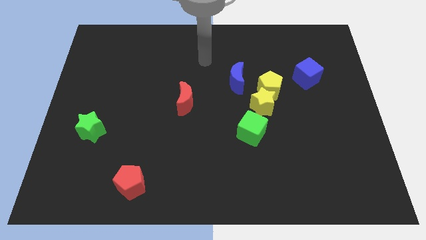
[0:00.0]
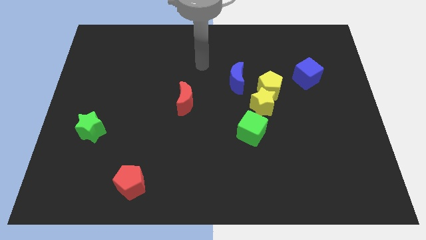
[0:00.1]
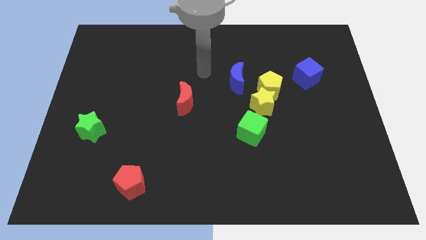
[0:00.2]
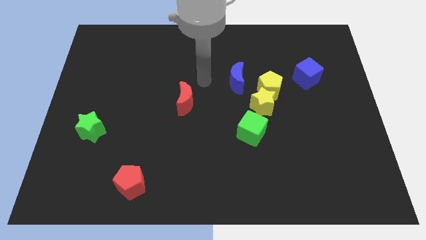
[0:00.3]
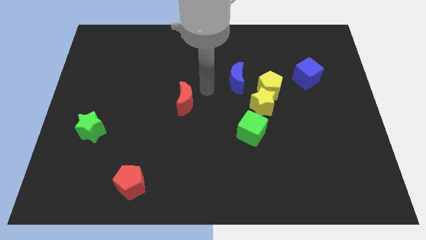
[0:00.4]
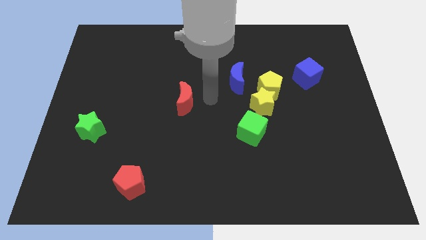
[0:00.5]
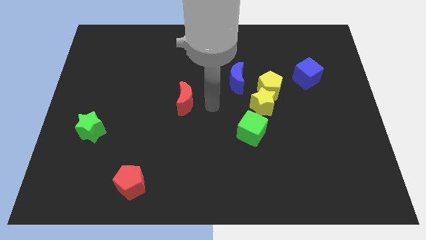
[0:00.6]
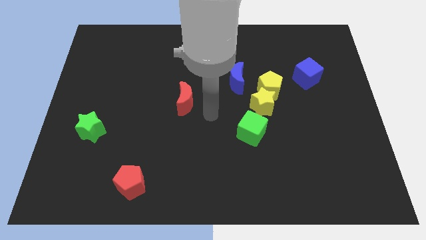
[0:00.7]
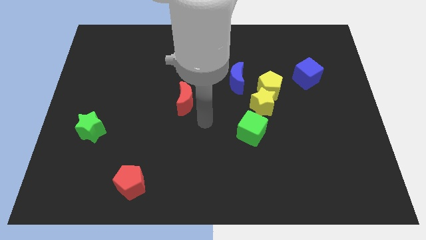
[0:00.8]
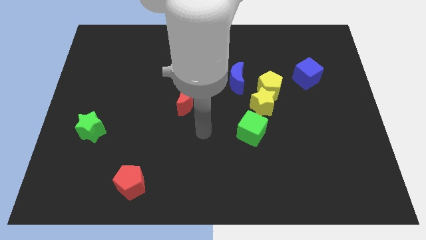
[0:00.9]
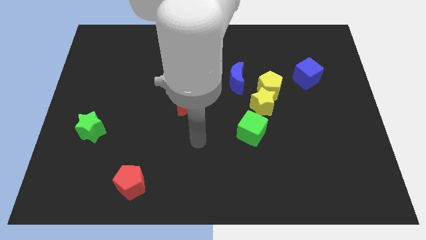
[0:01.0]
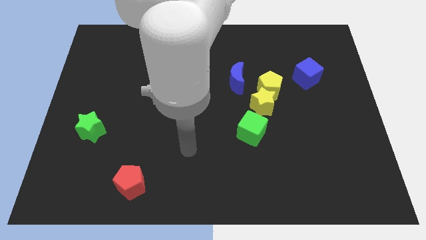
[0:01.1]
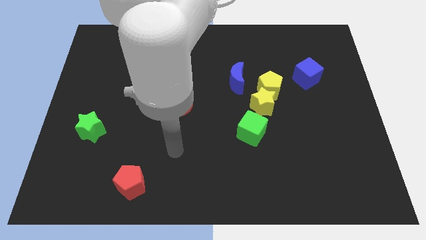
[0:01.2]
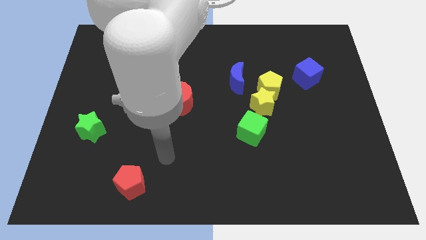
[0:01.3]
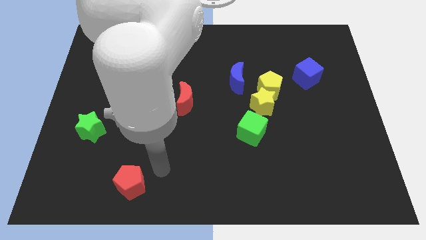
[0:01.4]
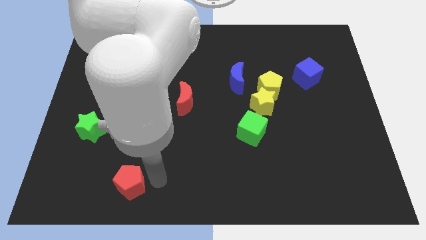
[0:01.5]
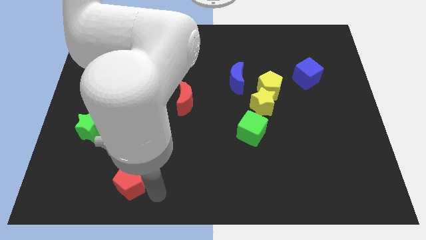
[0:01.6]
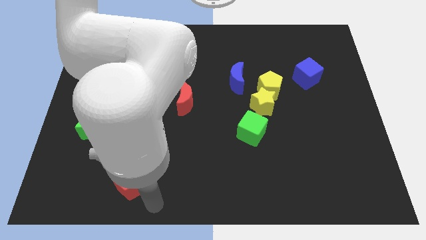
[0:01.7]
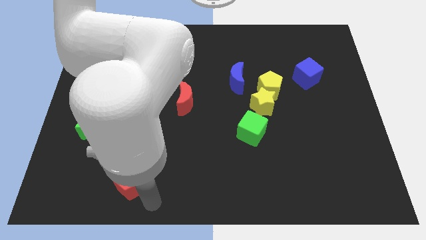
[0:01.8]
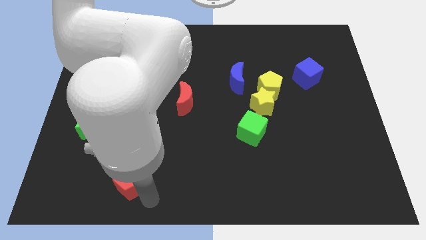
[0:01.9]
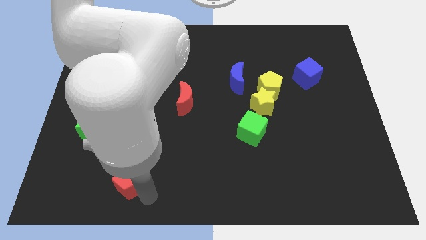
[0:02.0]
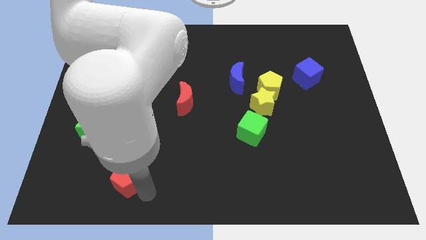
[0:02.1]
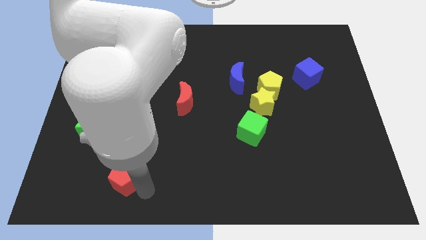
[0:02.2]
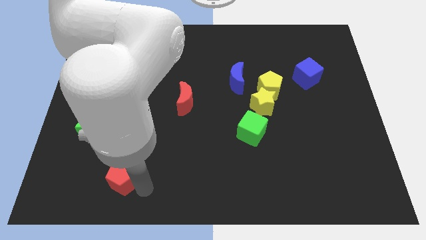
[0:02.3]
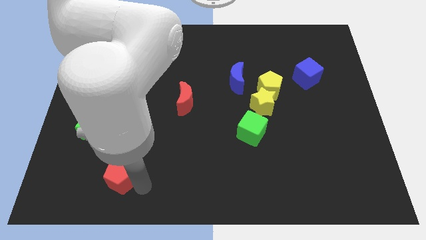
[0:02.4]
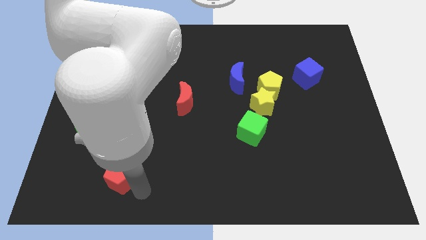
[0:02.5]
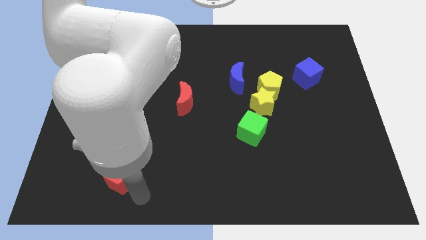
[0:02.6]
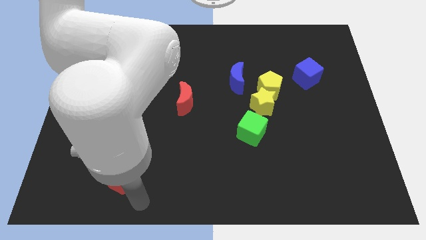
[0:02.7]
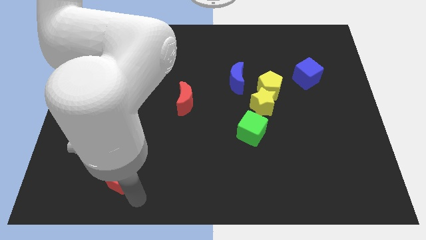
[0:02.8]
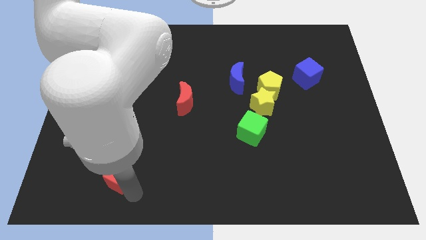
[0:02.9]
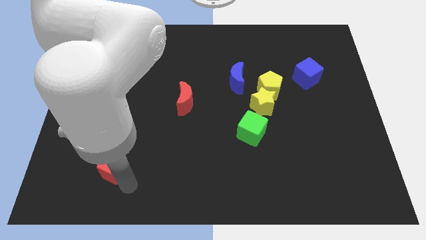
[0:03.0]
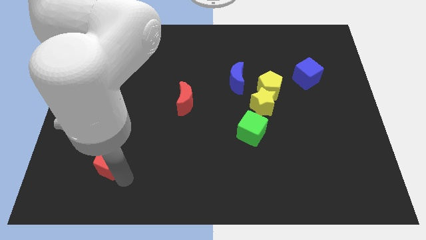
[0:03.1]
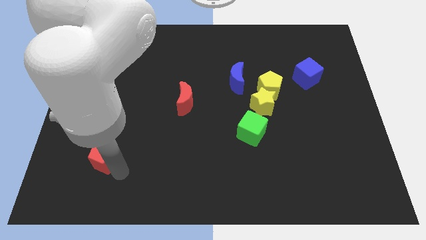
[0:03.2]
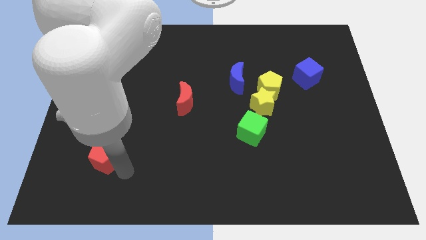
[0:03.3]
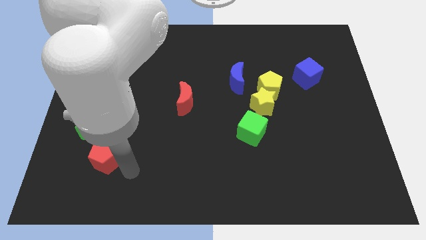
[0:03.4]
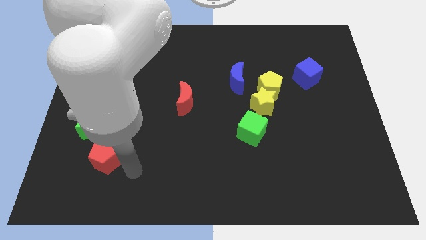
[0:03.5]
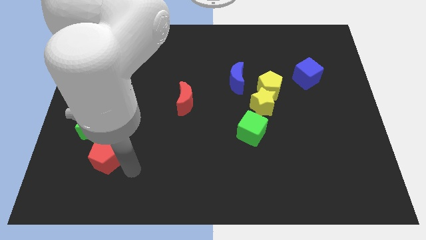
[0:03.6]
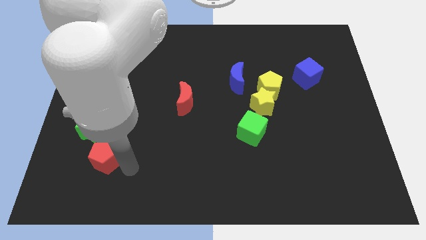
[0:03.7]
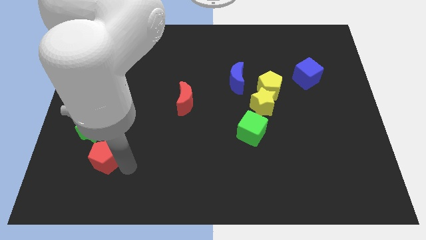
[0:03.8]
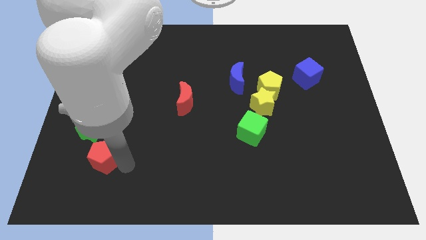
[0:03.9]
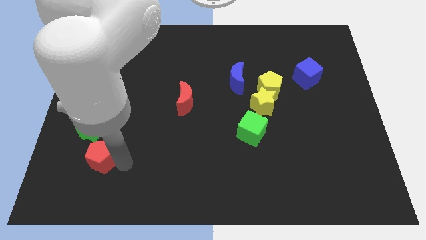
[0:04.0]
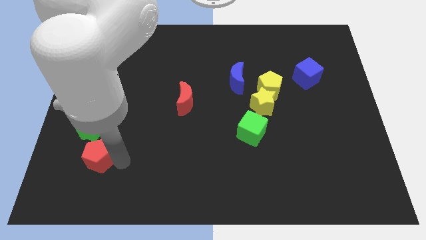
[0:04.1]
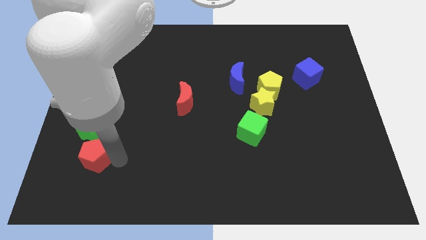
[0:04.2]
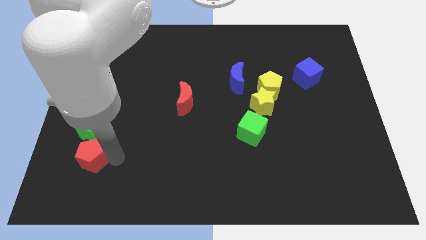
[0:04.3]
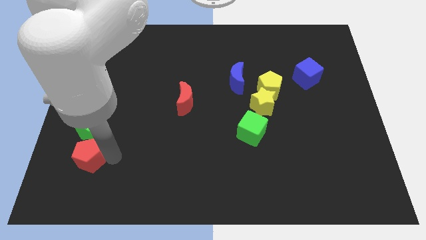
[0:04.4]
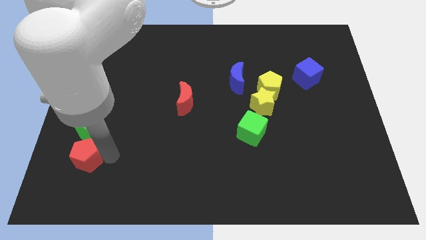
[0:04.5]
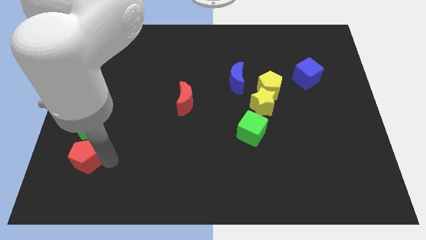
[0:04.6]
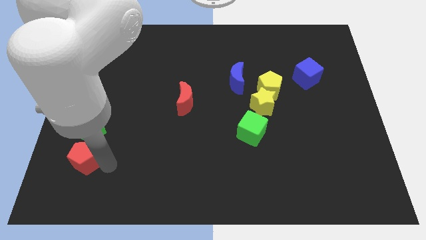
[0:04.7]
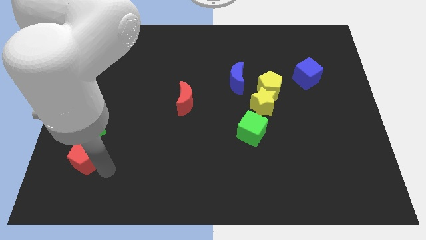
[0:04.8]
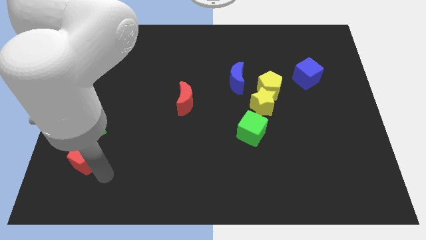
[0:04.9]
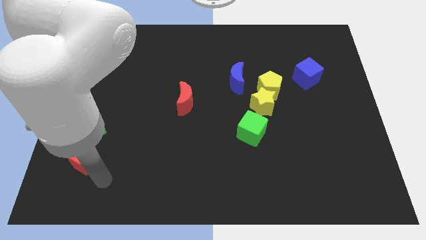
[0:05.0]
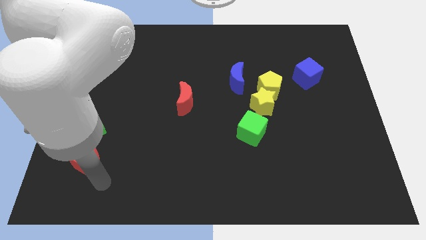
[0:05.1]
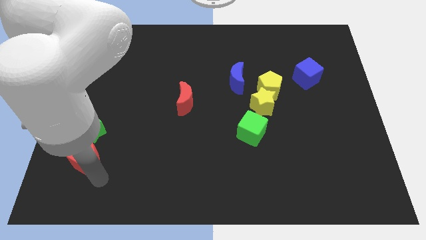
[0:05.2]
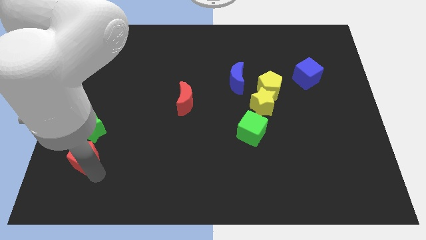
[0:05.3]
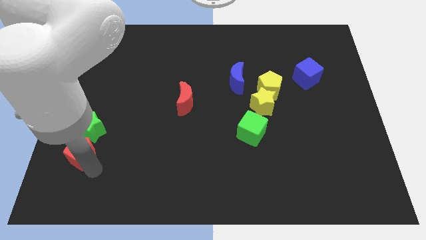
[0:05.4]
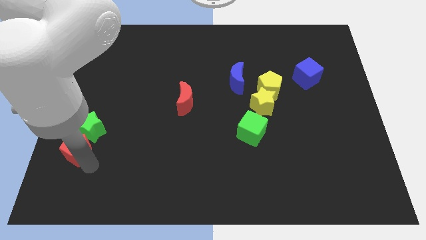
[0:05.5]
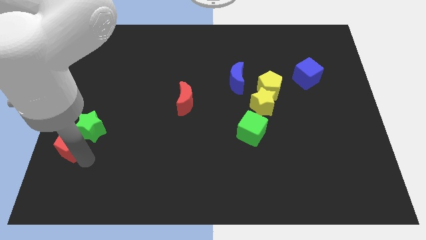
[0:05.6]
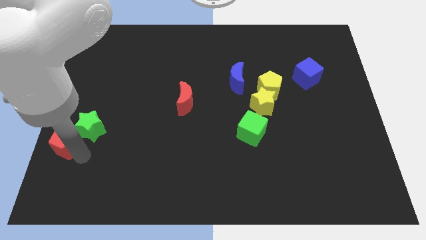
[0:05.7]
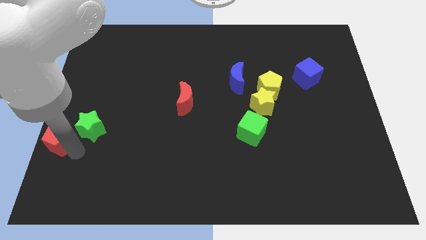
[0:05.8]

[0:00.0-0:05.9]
move the red pentagon to the left side of the board

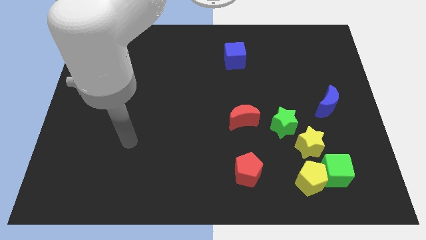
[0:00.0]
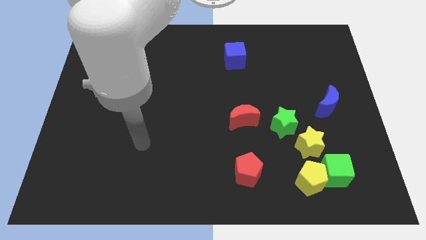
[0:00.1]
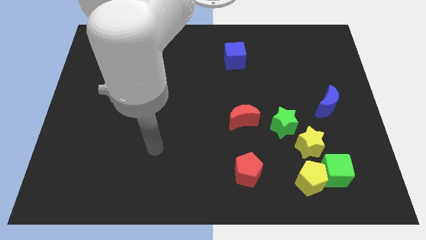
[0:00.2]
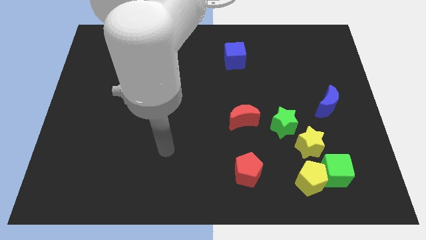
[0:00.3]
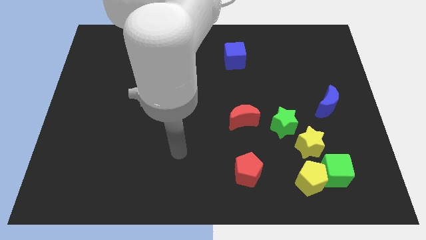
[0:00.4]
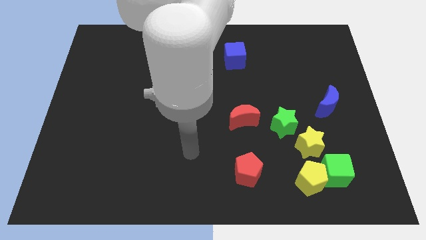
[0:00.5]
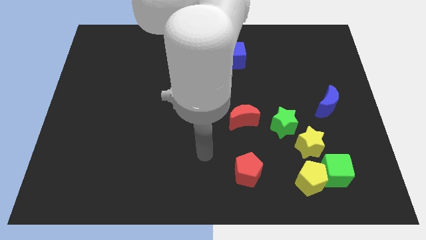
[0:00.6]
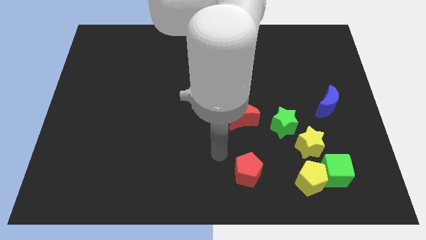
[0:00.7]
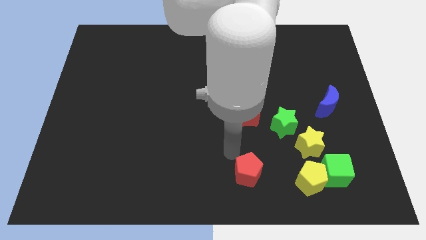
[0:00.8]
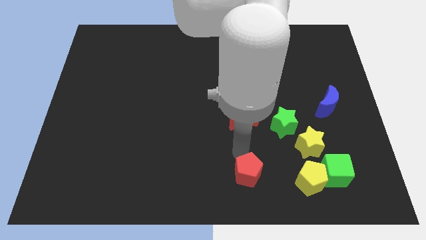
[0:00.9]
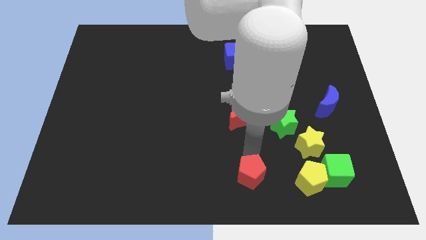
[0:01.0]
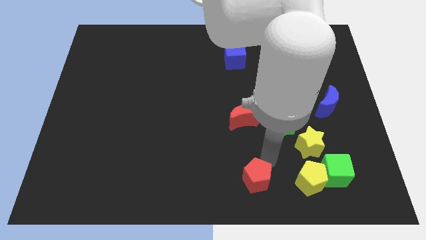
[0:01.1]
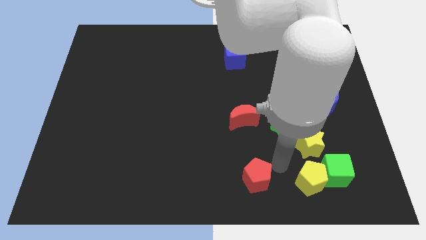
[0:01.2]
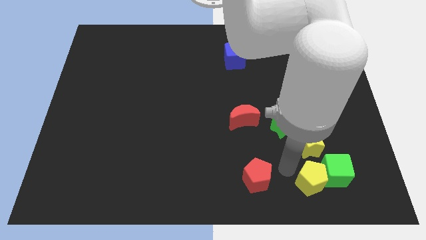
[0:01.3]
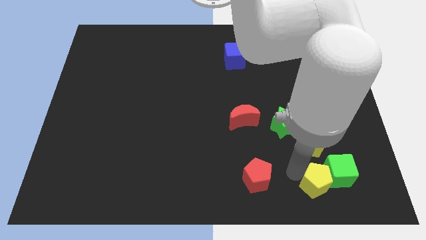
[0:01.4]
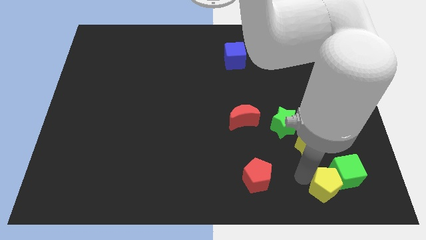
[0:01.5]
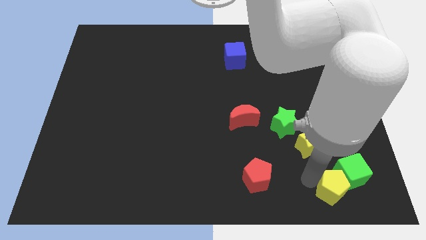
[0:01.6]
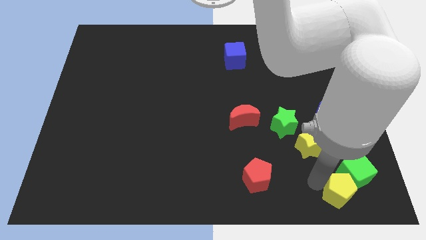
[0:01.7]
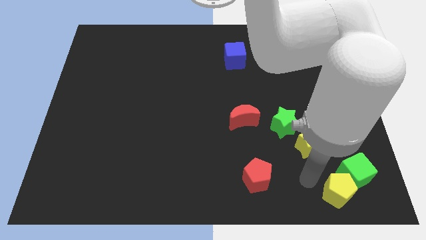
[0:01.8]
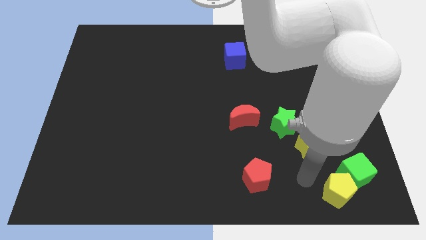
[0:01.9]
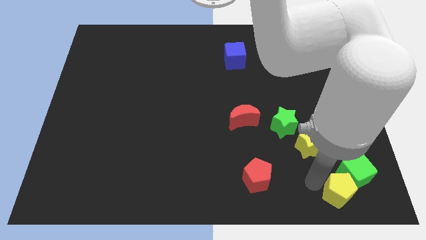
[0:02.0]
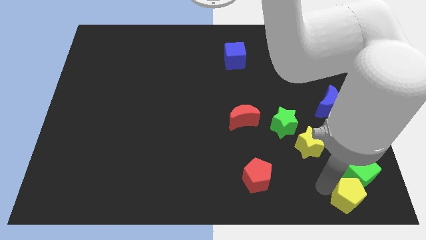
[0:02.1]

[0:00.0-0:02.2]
push the yellow pentagon to the lower right corner
